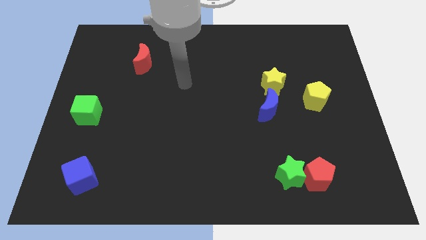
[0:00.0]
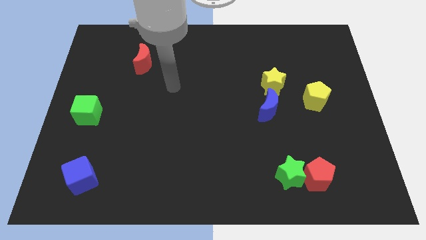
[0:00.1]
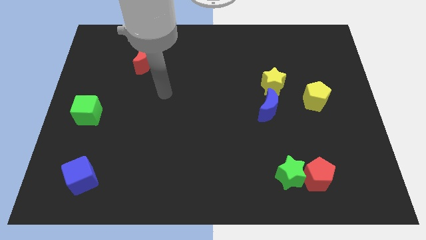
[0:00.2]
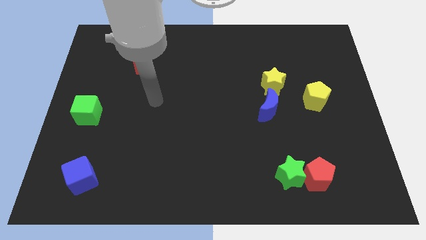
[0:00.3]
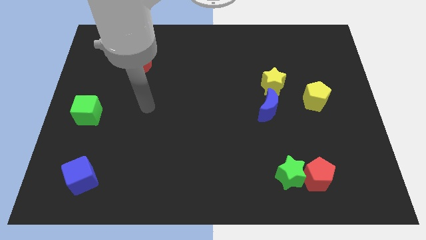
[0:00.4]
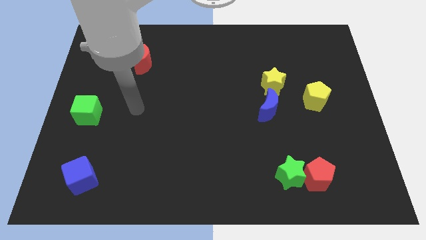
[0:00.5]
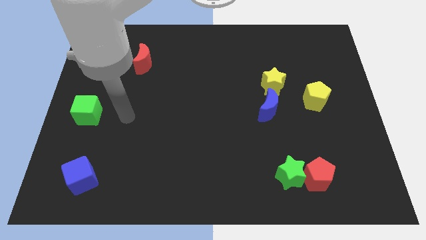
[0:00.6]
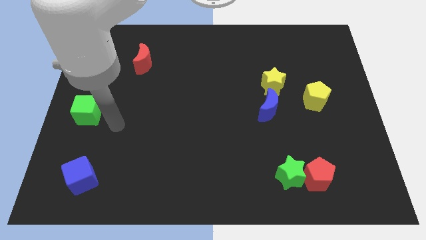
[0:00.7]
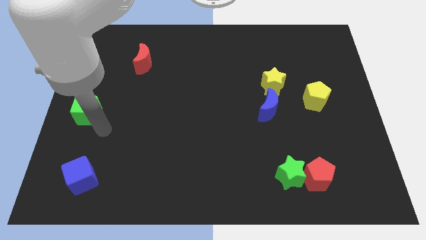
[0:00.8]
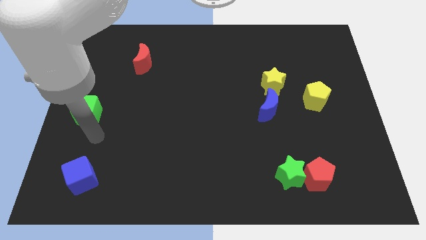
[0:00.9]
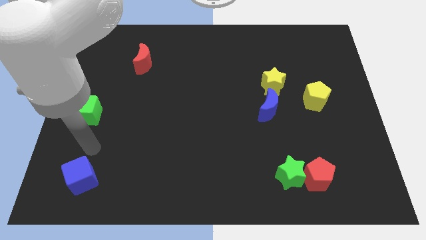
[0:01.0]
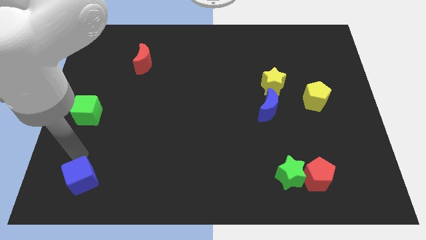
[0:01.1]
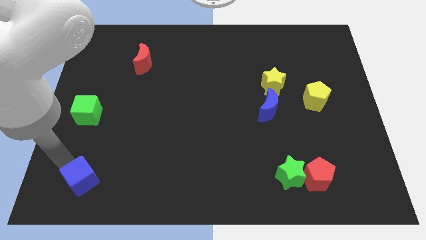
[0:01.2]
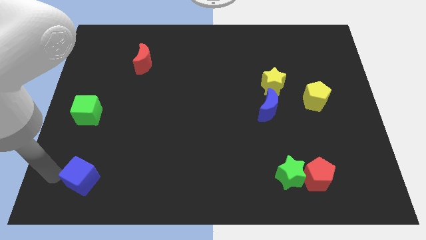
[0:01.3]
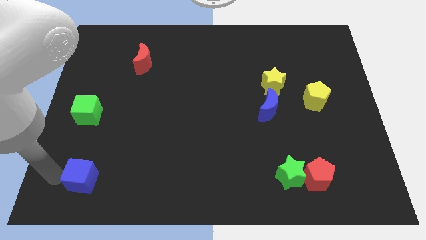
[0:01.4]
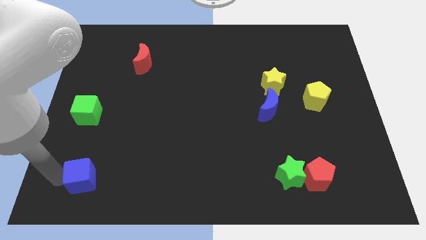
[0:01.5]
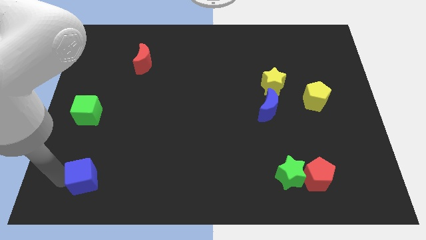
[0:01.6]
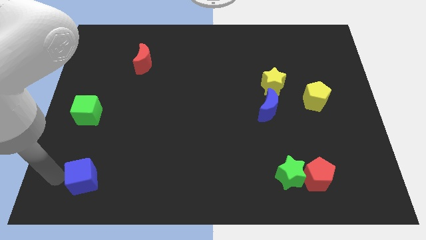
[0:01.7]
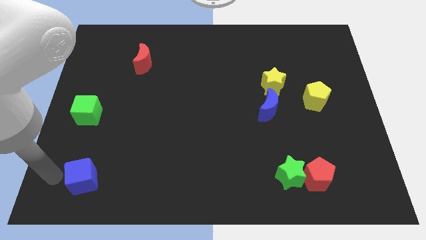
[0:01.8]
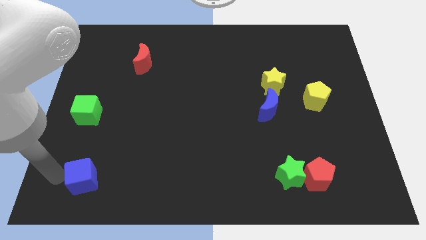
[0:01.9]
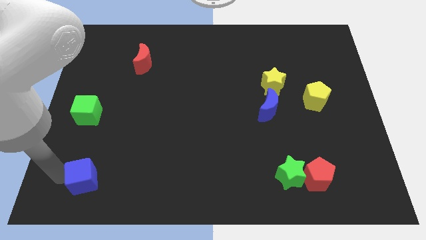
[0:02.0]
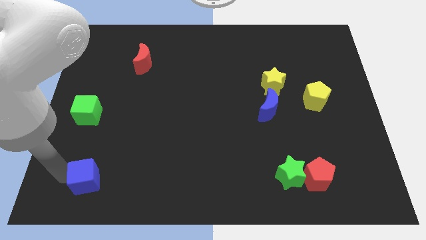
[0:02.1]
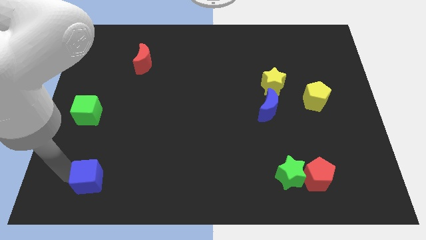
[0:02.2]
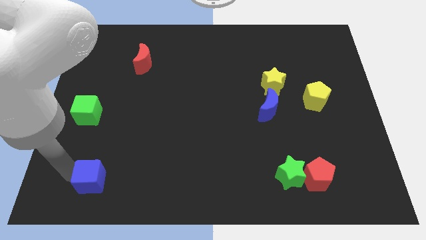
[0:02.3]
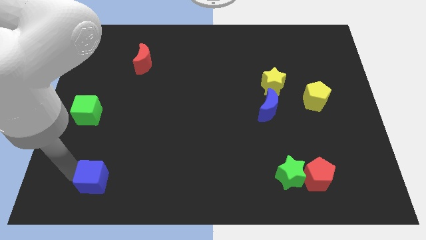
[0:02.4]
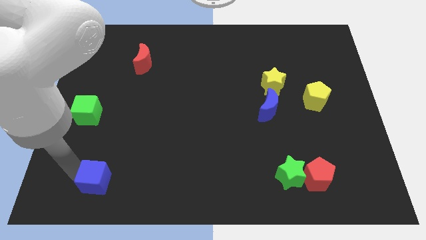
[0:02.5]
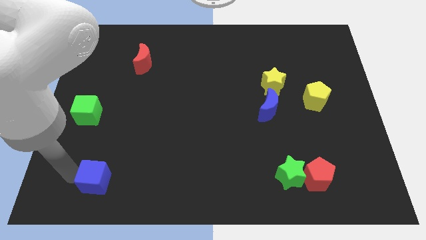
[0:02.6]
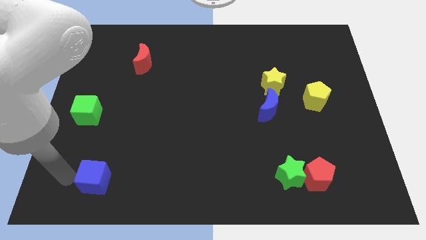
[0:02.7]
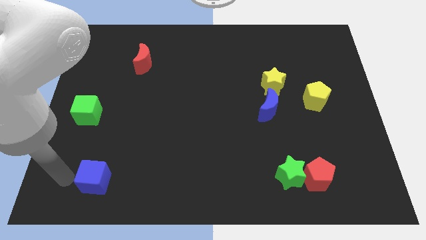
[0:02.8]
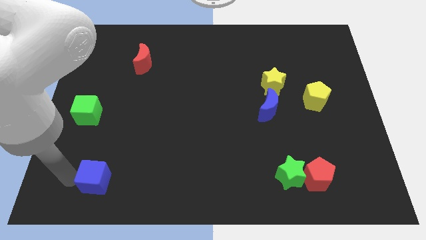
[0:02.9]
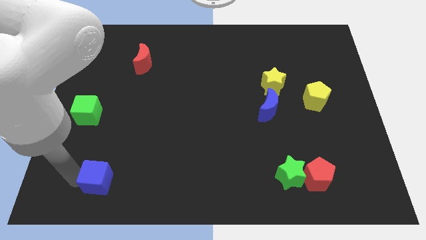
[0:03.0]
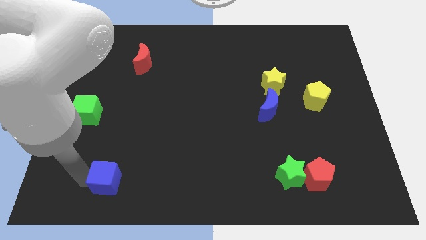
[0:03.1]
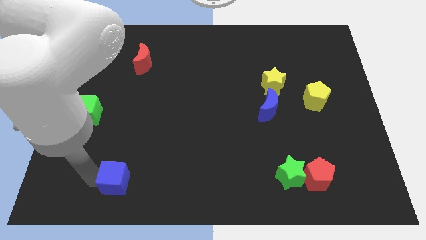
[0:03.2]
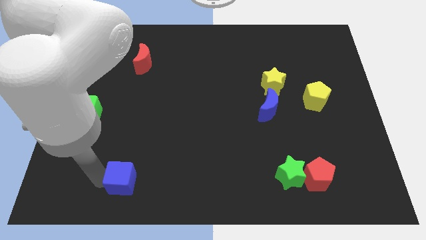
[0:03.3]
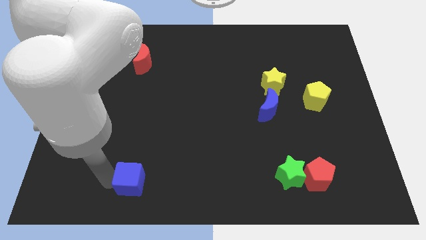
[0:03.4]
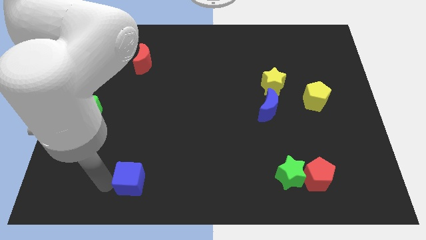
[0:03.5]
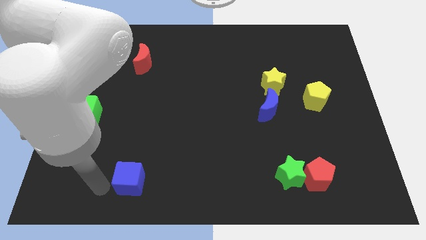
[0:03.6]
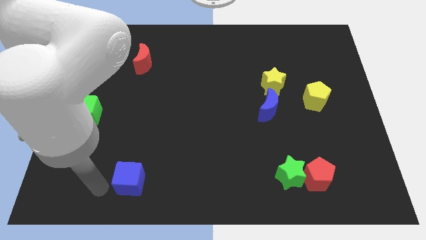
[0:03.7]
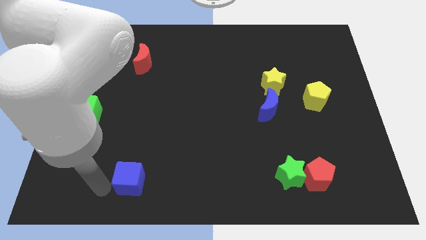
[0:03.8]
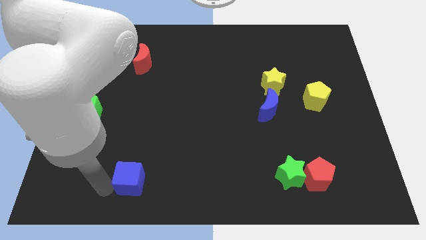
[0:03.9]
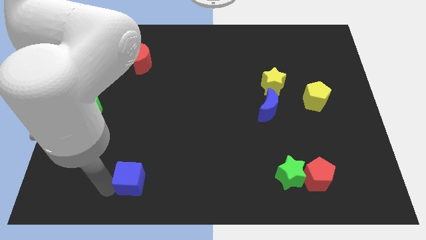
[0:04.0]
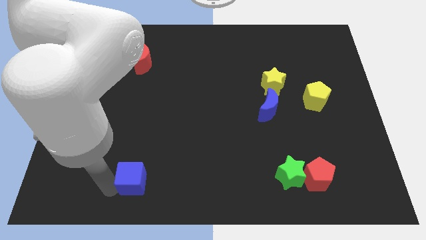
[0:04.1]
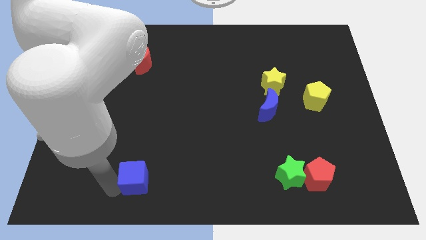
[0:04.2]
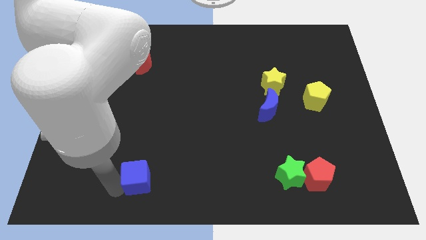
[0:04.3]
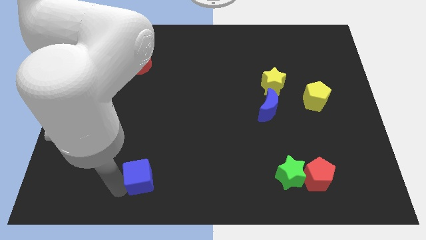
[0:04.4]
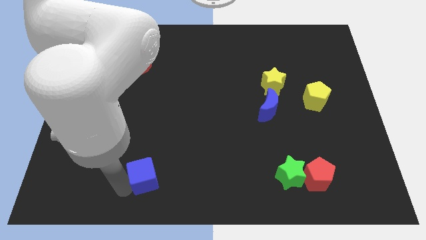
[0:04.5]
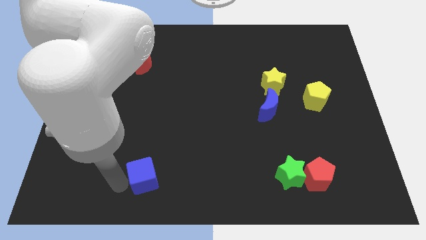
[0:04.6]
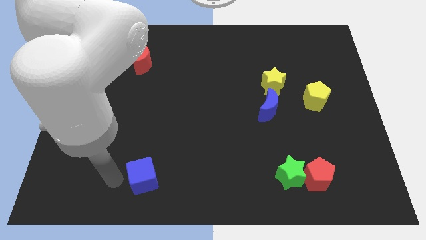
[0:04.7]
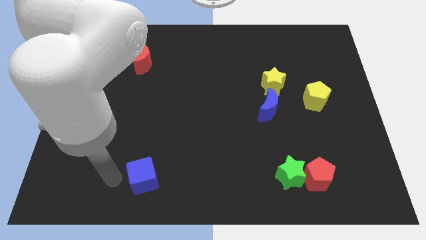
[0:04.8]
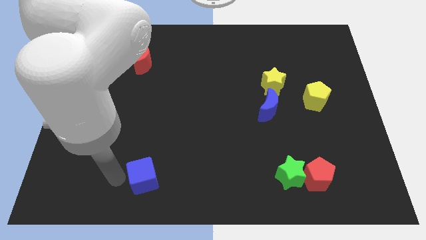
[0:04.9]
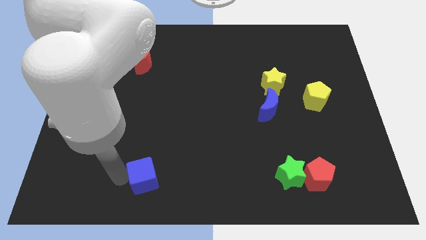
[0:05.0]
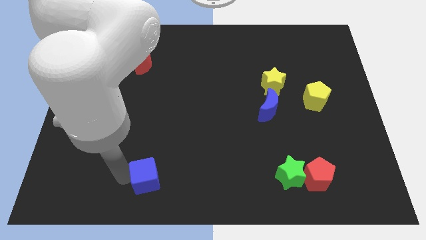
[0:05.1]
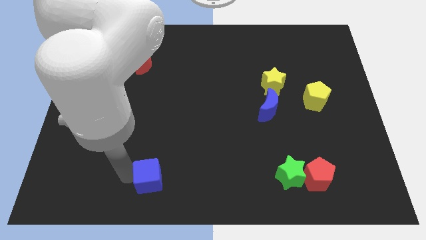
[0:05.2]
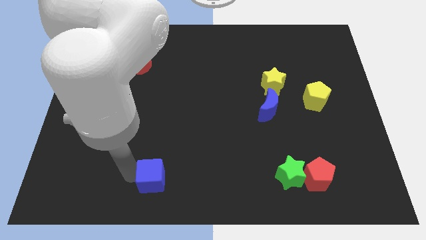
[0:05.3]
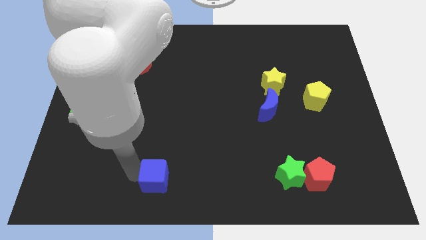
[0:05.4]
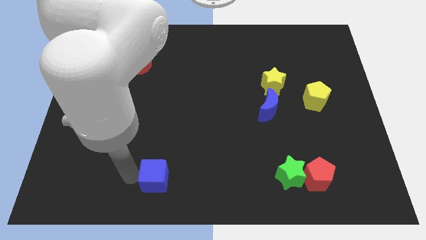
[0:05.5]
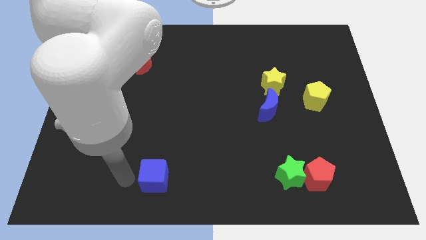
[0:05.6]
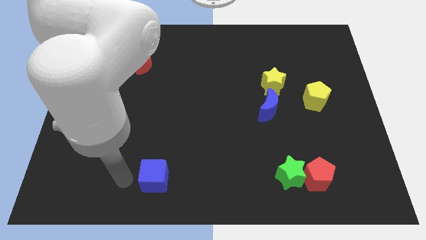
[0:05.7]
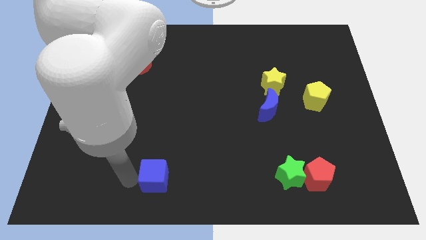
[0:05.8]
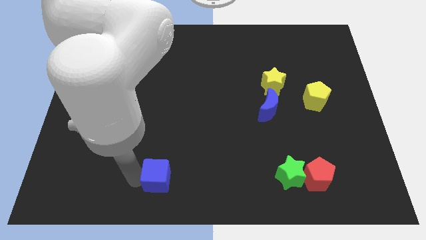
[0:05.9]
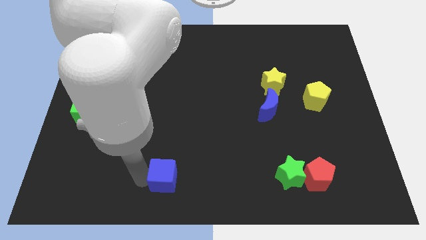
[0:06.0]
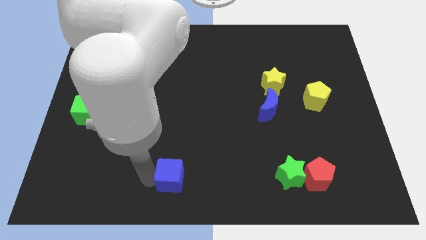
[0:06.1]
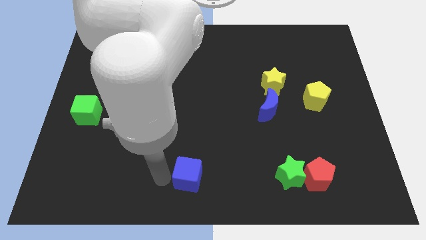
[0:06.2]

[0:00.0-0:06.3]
slide the blue cube to the right

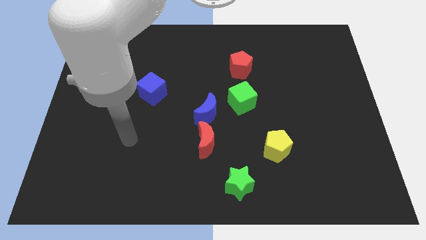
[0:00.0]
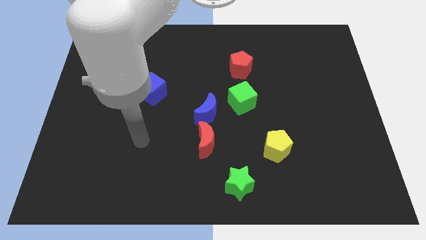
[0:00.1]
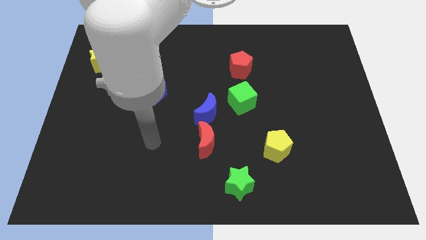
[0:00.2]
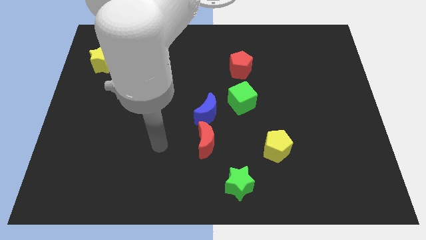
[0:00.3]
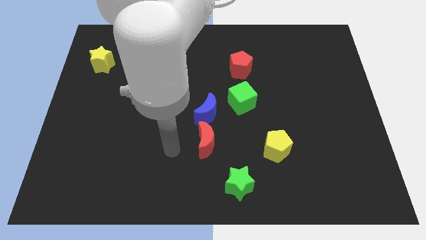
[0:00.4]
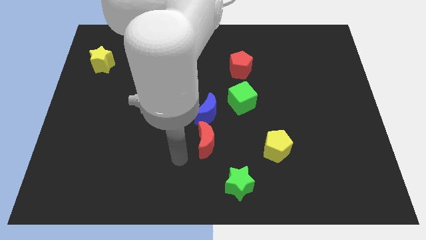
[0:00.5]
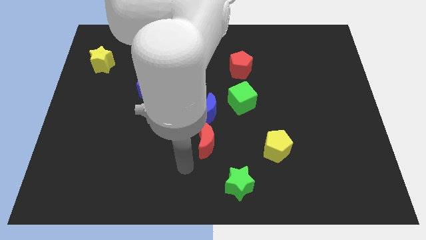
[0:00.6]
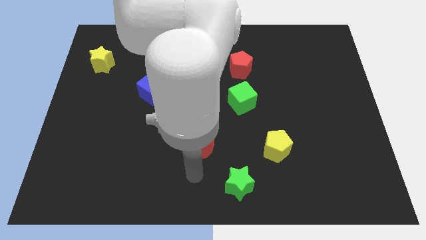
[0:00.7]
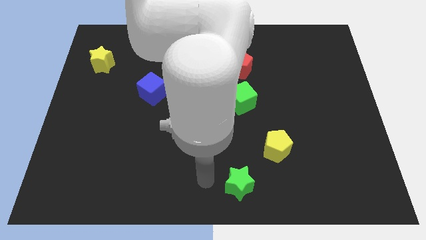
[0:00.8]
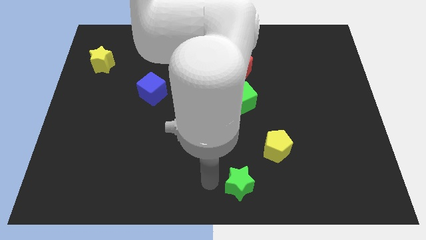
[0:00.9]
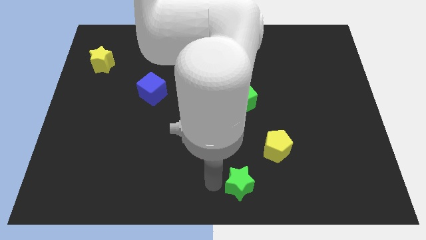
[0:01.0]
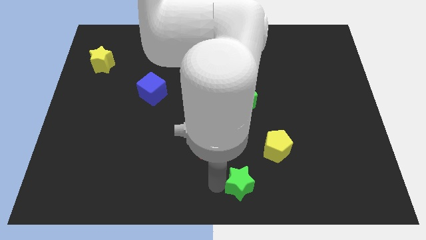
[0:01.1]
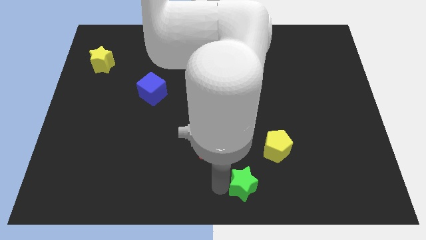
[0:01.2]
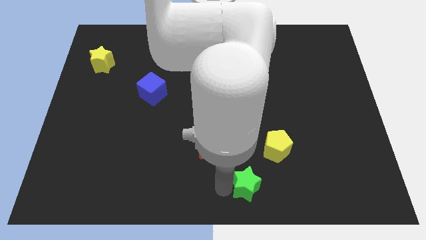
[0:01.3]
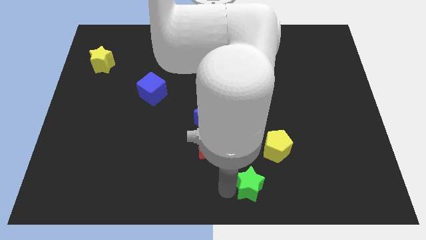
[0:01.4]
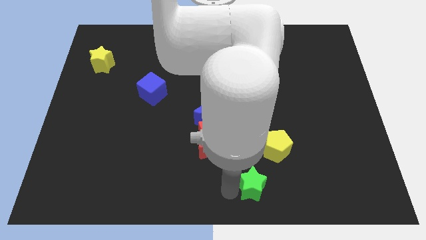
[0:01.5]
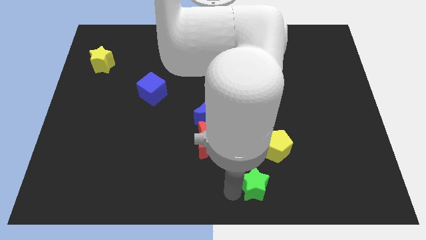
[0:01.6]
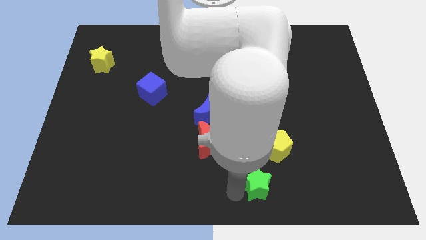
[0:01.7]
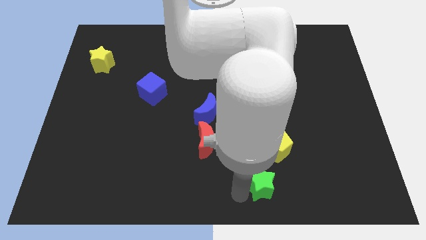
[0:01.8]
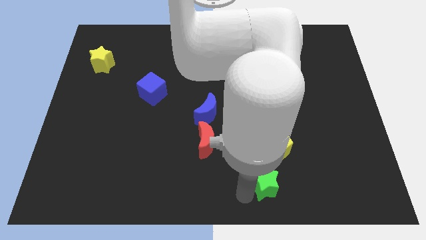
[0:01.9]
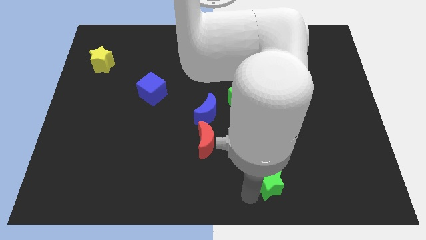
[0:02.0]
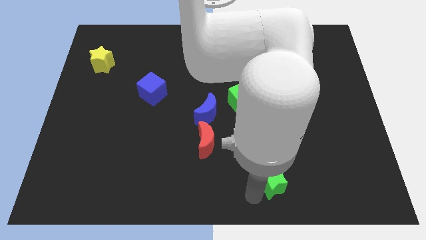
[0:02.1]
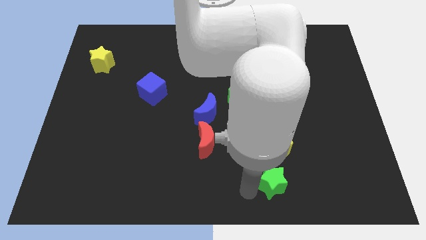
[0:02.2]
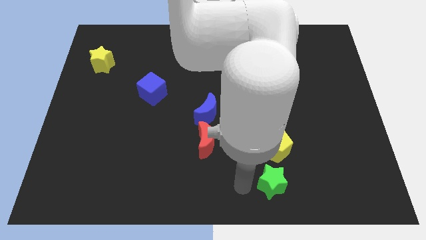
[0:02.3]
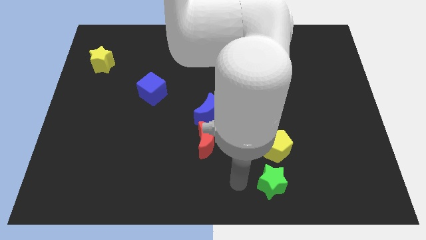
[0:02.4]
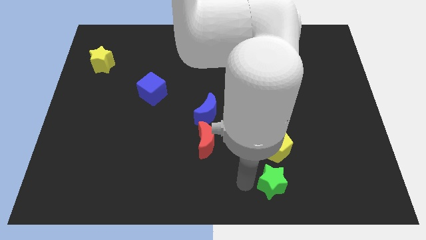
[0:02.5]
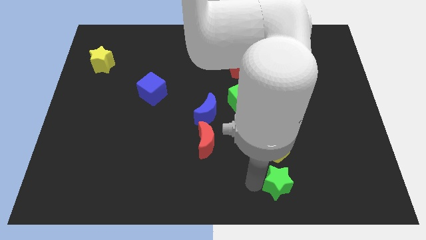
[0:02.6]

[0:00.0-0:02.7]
slightly move the green star right
